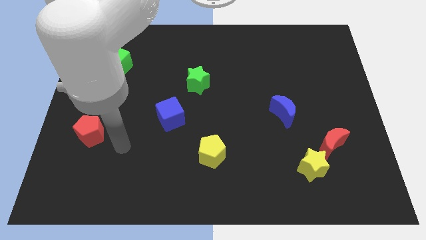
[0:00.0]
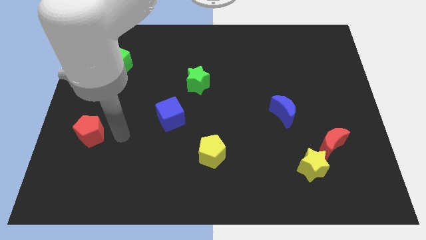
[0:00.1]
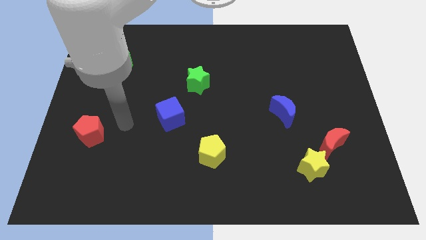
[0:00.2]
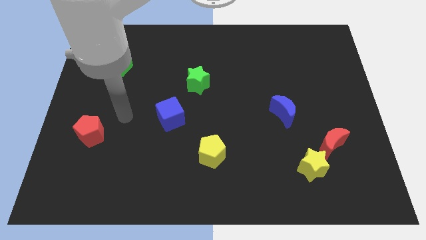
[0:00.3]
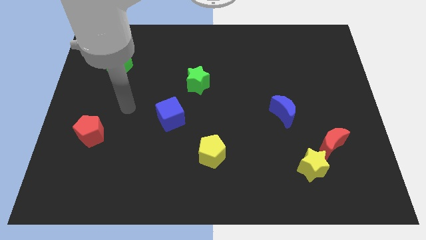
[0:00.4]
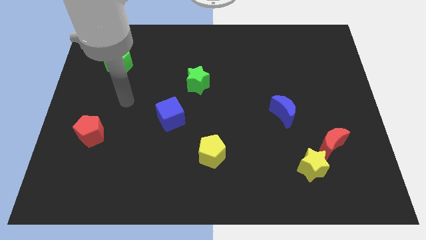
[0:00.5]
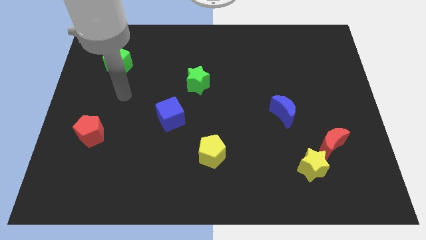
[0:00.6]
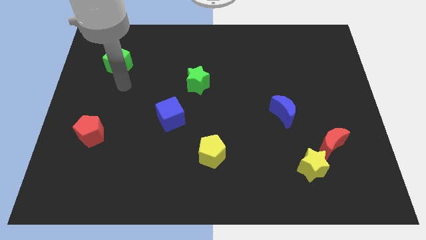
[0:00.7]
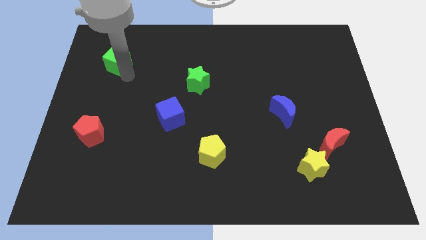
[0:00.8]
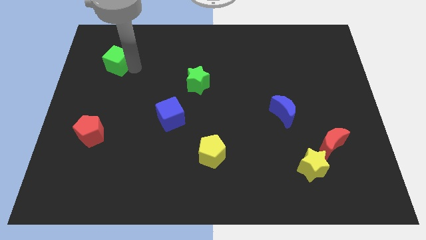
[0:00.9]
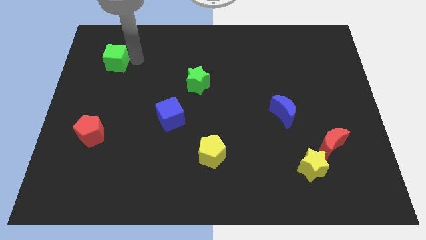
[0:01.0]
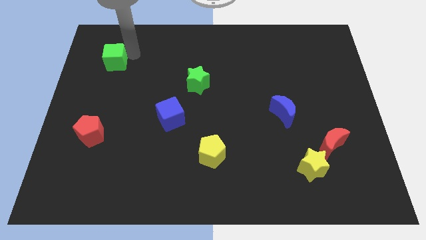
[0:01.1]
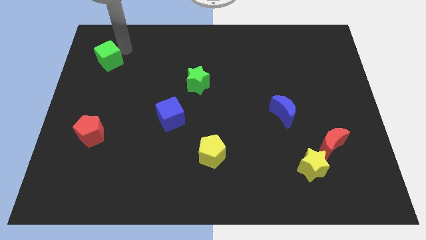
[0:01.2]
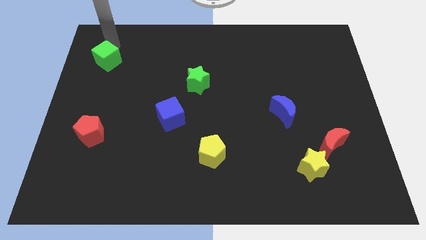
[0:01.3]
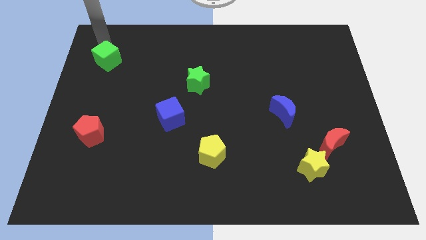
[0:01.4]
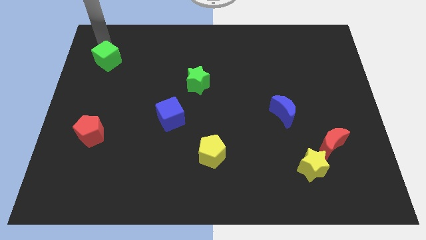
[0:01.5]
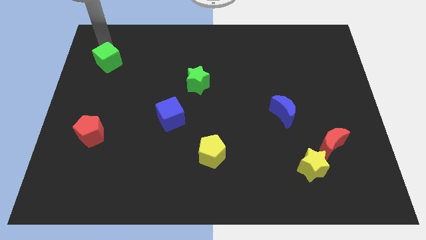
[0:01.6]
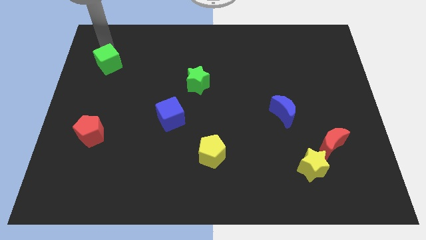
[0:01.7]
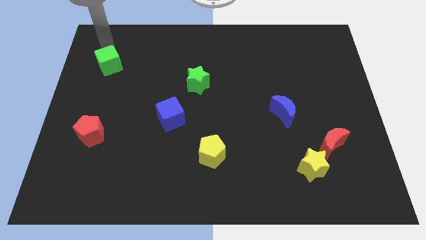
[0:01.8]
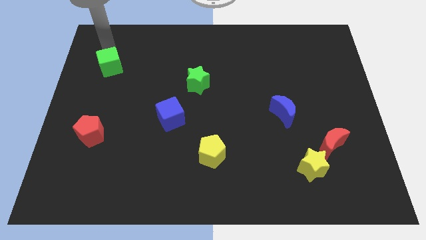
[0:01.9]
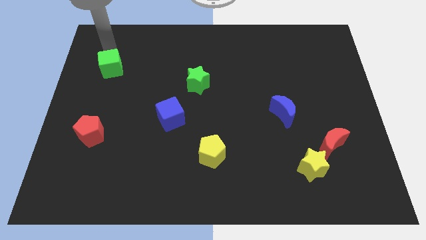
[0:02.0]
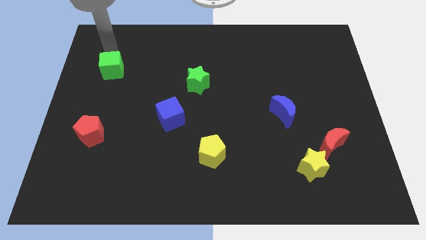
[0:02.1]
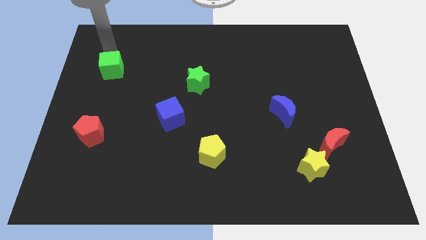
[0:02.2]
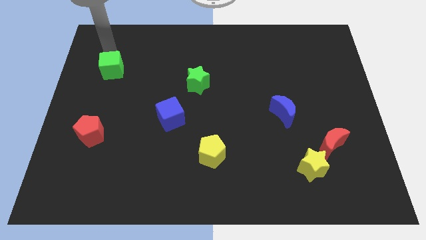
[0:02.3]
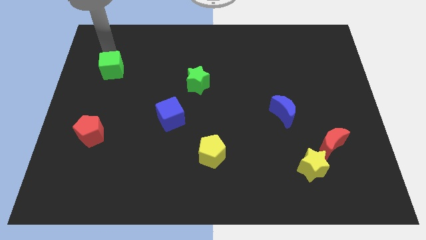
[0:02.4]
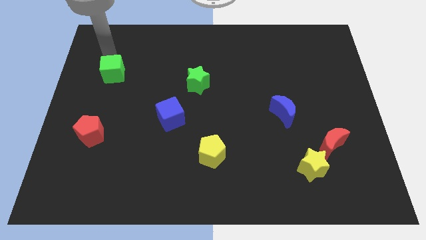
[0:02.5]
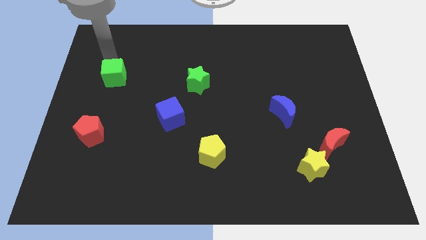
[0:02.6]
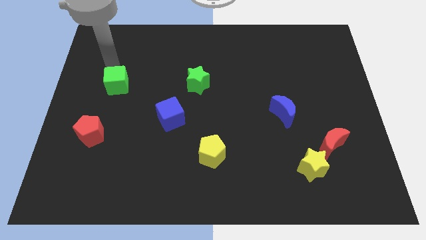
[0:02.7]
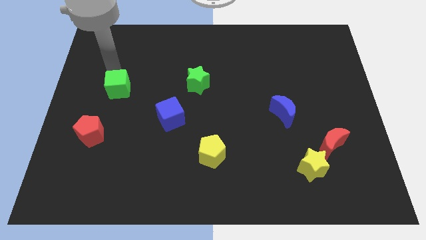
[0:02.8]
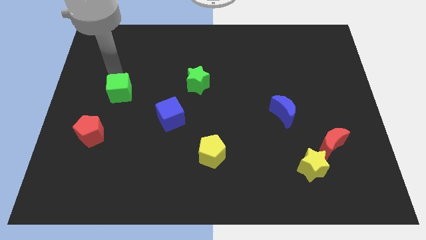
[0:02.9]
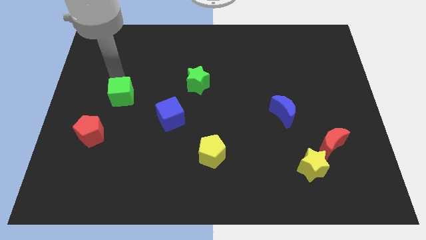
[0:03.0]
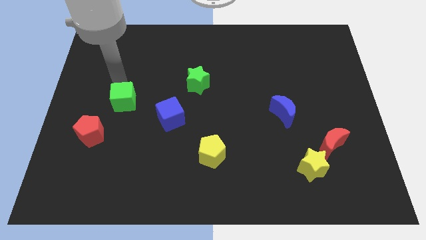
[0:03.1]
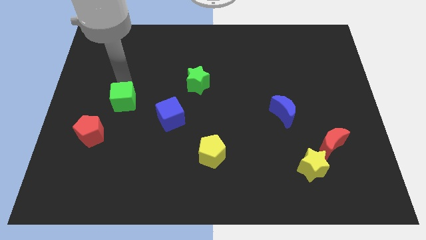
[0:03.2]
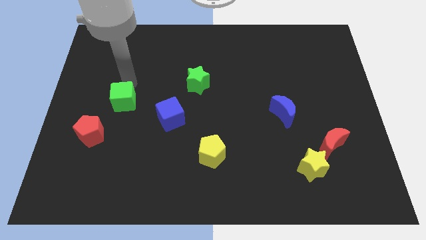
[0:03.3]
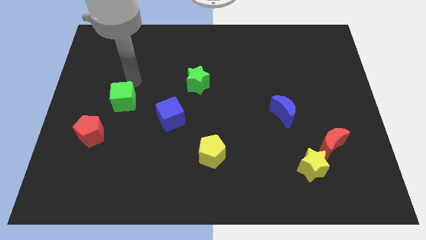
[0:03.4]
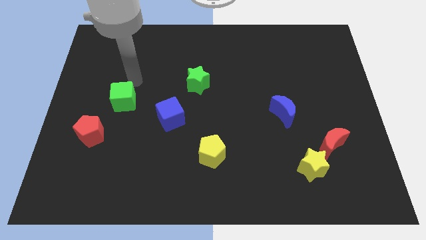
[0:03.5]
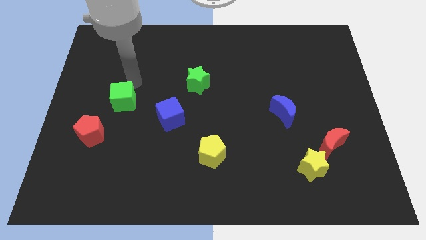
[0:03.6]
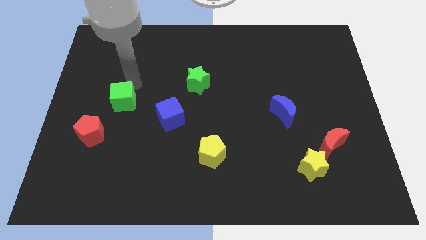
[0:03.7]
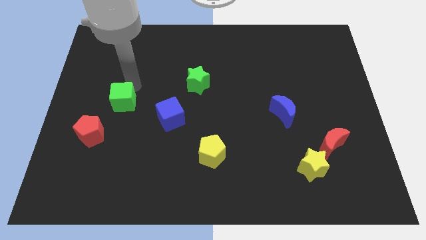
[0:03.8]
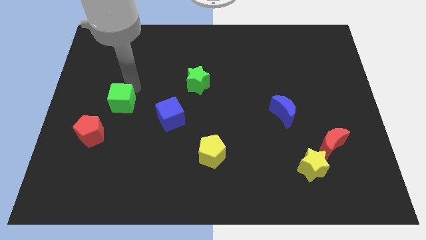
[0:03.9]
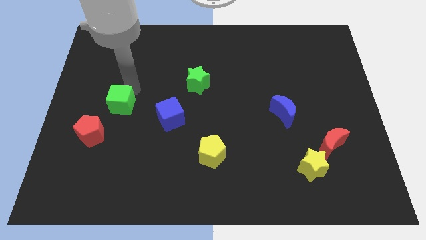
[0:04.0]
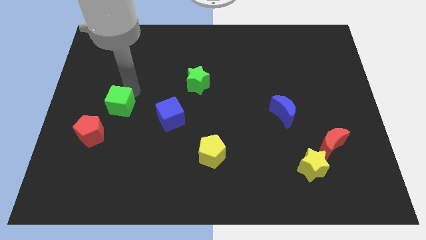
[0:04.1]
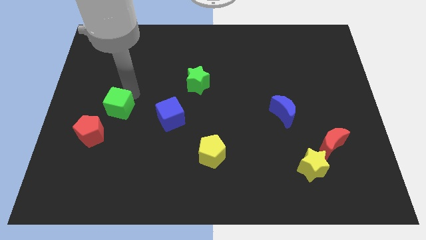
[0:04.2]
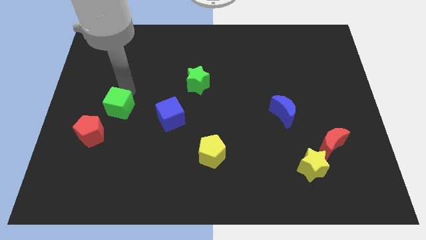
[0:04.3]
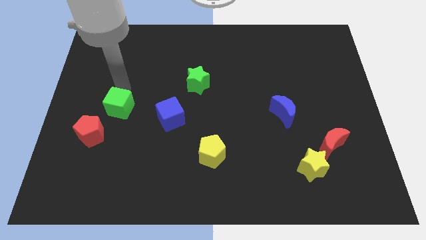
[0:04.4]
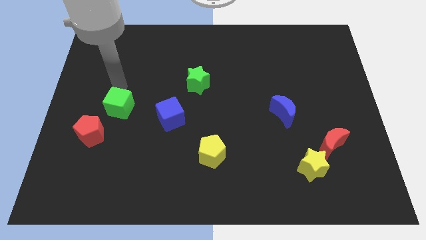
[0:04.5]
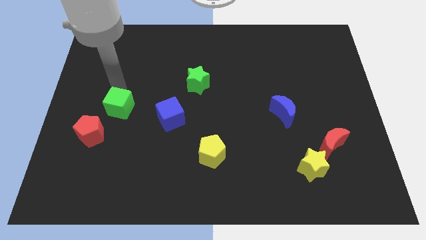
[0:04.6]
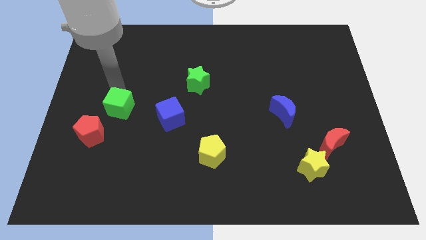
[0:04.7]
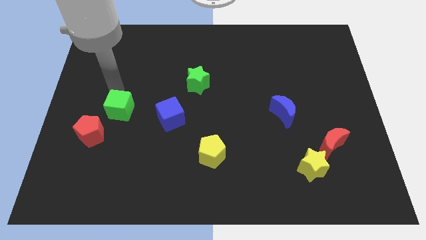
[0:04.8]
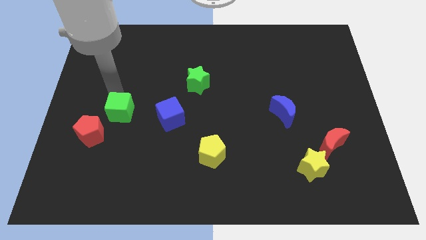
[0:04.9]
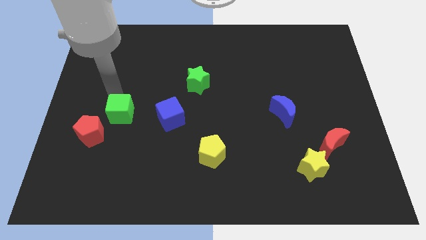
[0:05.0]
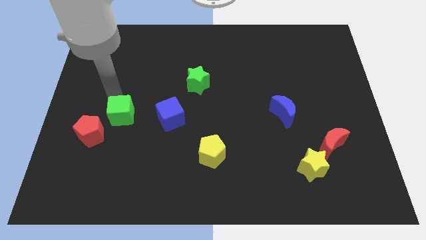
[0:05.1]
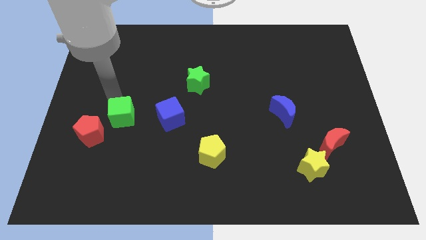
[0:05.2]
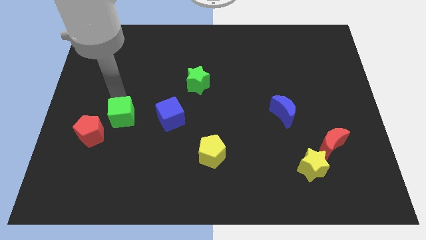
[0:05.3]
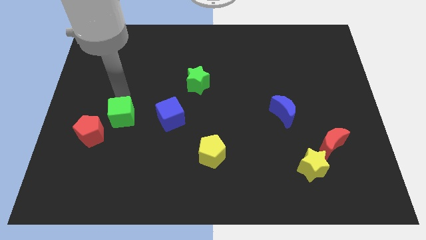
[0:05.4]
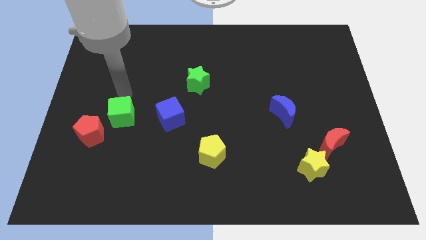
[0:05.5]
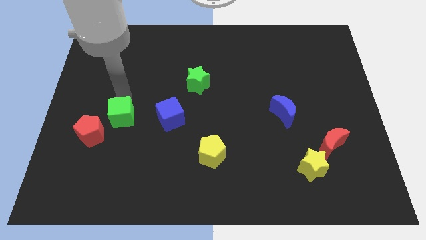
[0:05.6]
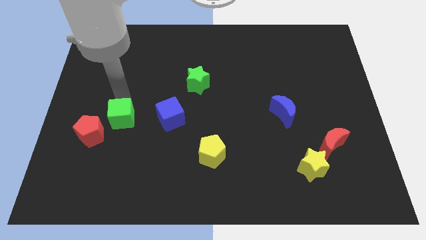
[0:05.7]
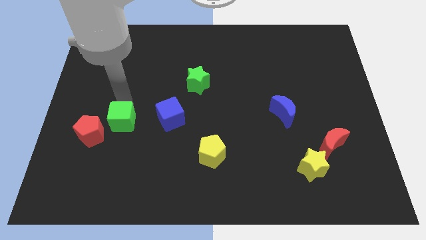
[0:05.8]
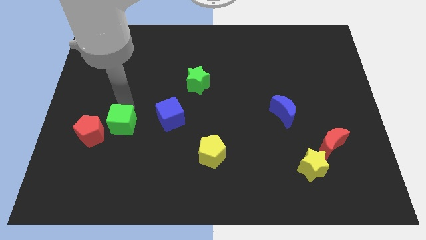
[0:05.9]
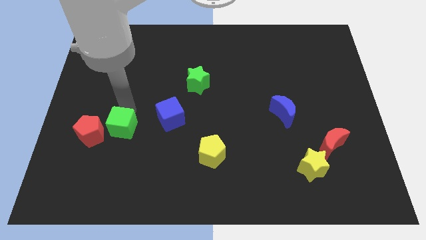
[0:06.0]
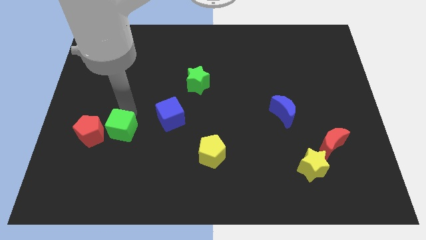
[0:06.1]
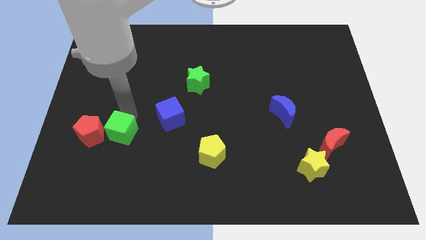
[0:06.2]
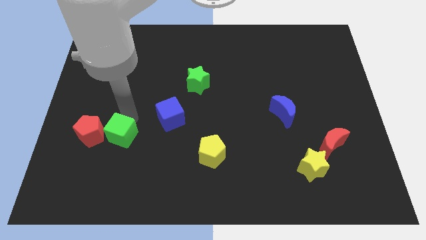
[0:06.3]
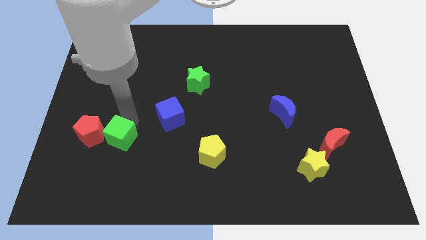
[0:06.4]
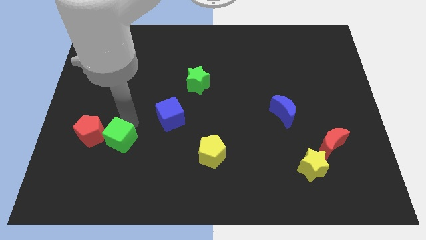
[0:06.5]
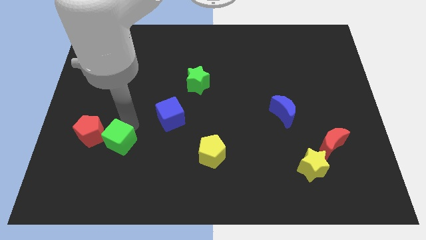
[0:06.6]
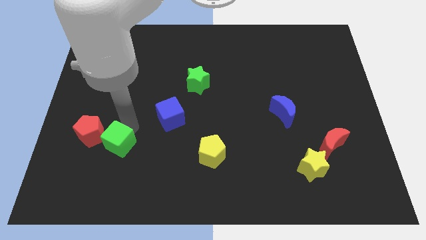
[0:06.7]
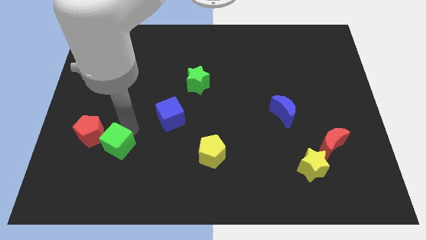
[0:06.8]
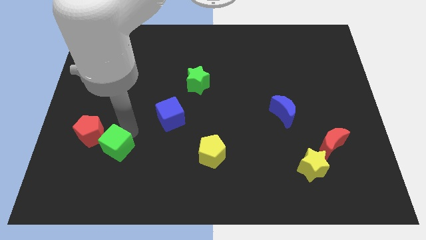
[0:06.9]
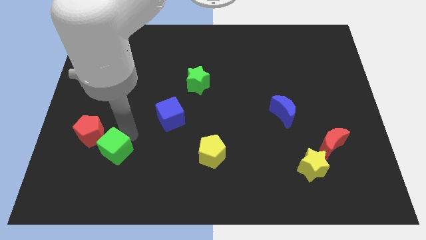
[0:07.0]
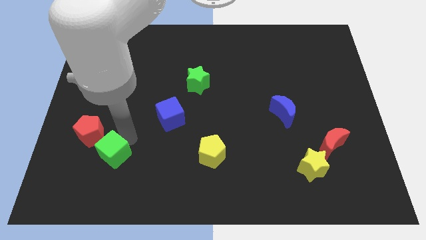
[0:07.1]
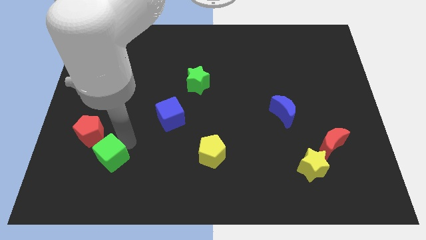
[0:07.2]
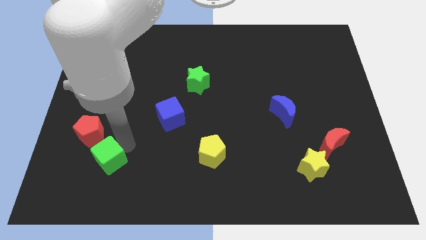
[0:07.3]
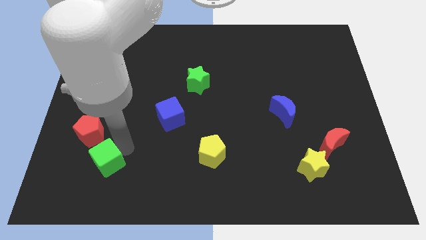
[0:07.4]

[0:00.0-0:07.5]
put the green cube to the bottom side of the red pentagon
